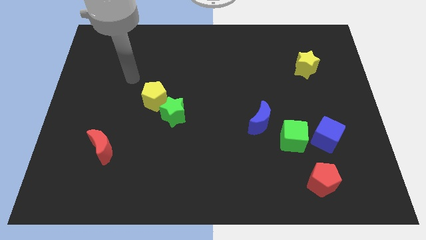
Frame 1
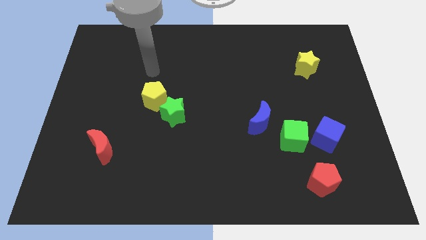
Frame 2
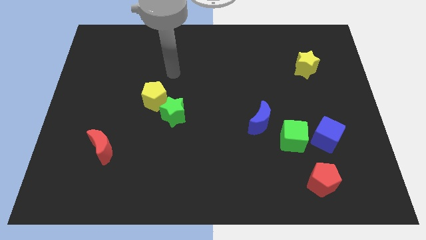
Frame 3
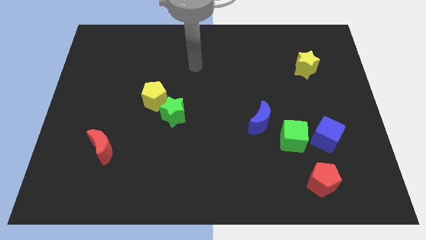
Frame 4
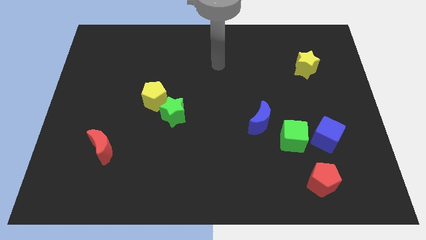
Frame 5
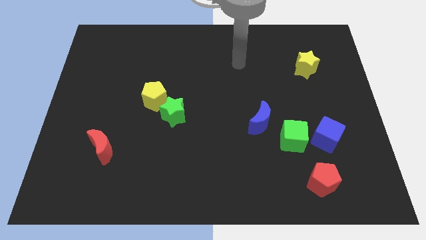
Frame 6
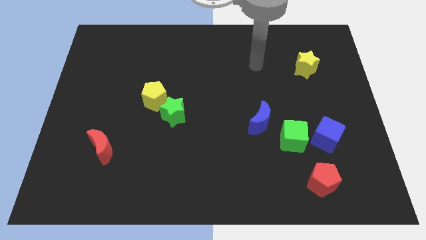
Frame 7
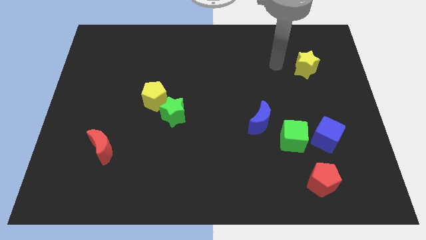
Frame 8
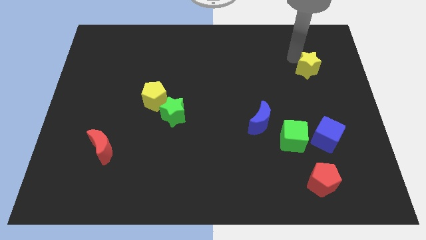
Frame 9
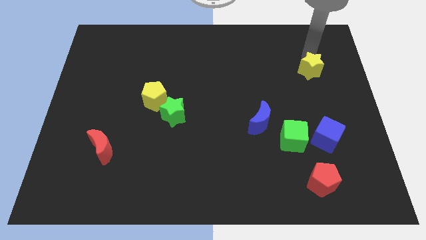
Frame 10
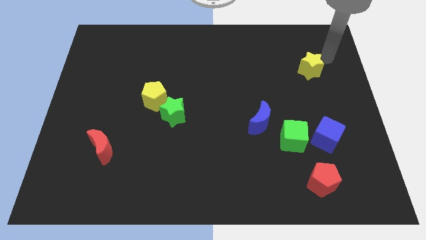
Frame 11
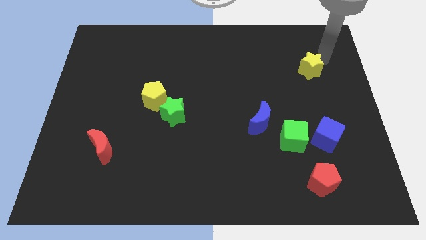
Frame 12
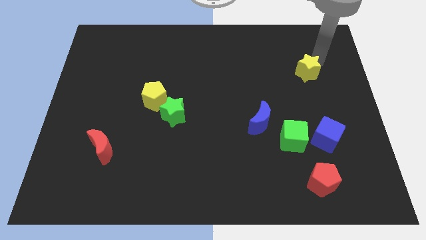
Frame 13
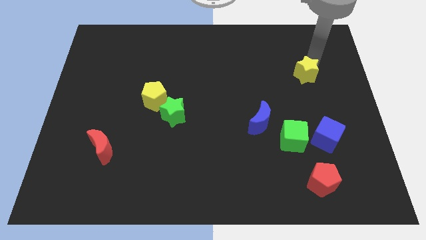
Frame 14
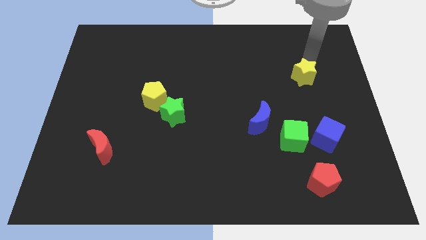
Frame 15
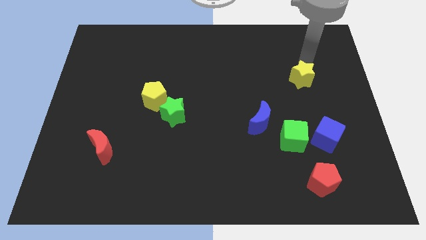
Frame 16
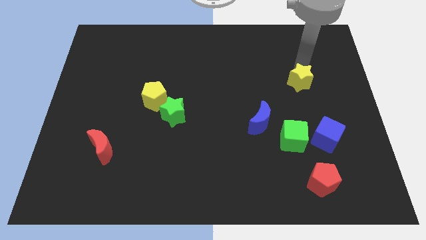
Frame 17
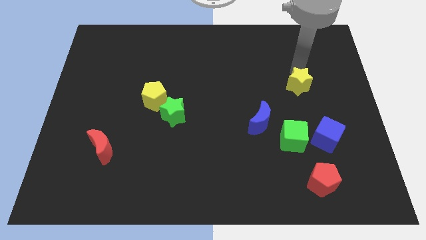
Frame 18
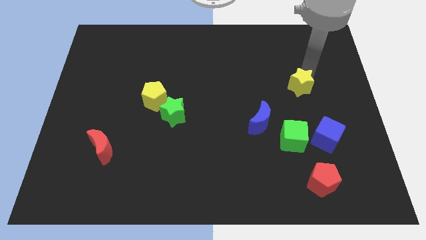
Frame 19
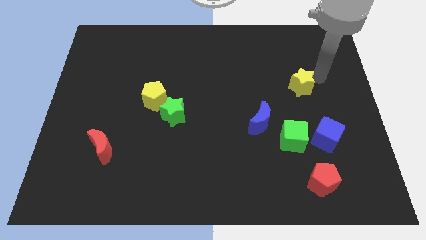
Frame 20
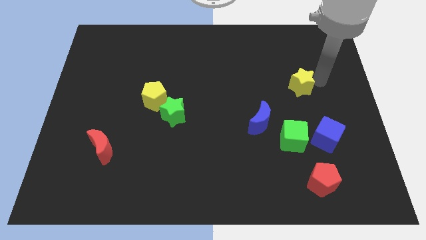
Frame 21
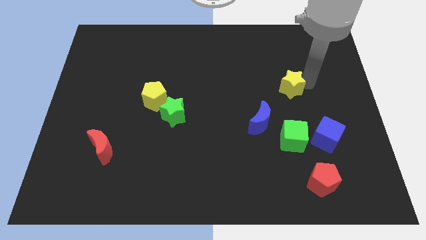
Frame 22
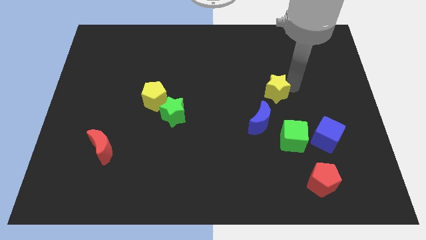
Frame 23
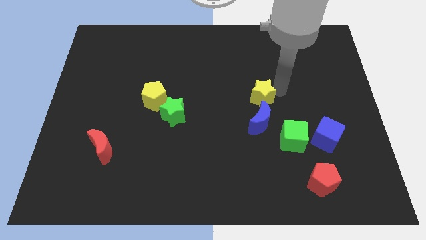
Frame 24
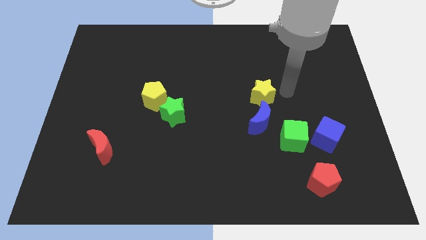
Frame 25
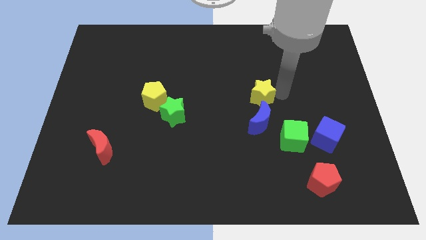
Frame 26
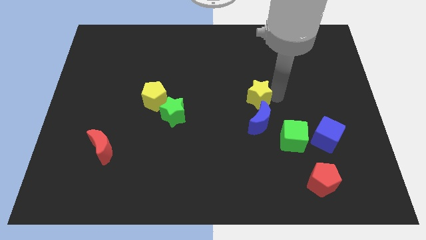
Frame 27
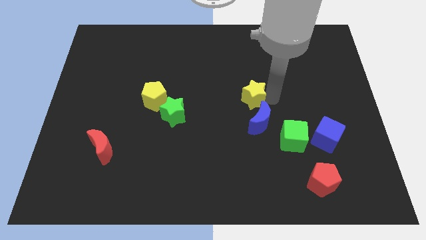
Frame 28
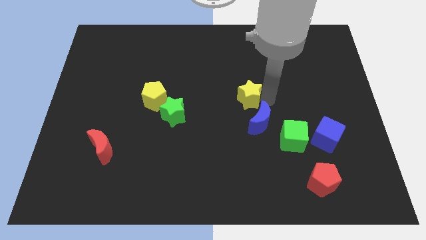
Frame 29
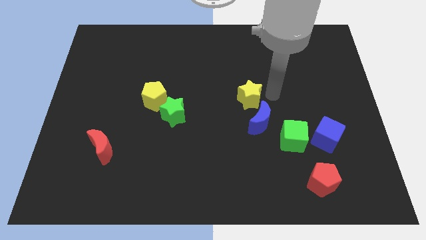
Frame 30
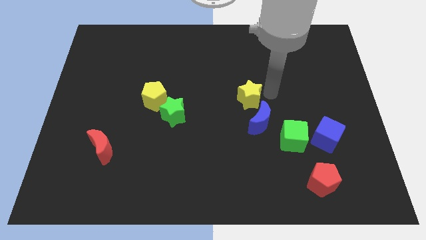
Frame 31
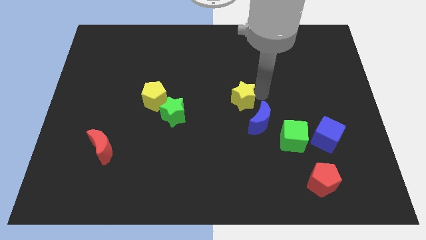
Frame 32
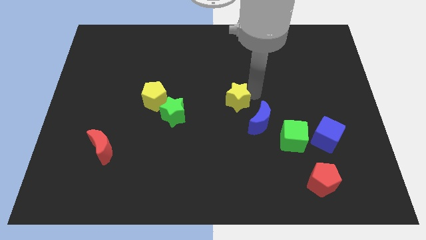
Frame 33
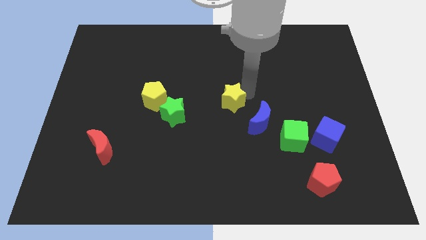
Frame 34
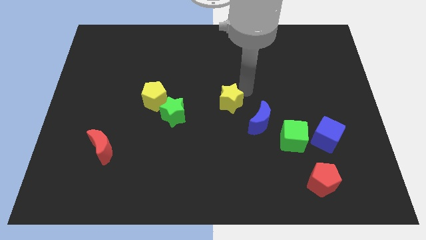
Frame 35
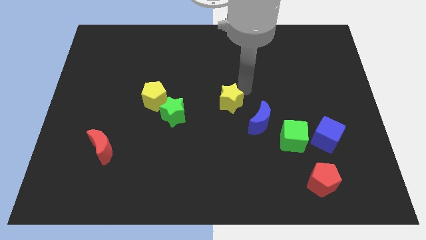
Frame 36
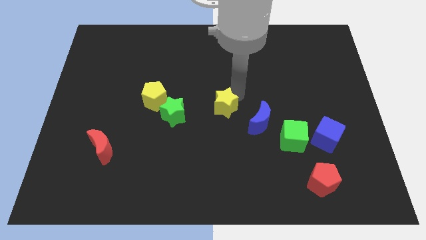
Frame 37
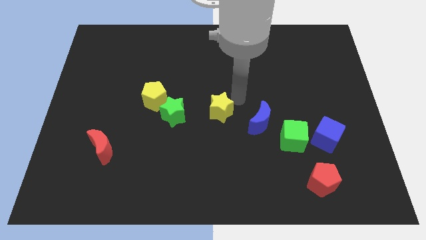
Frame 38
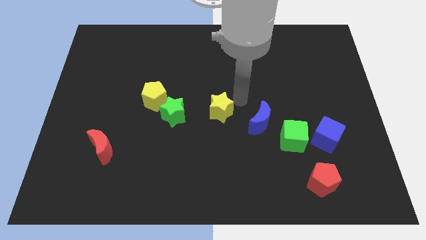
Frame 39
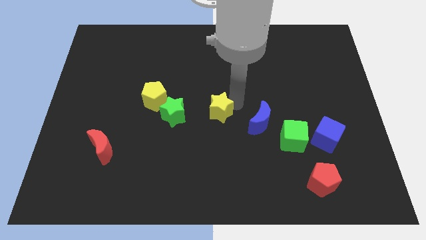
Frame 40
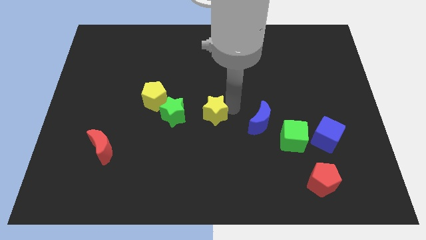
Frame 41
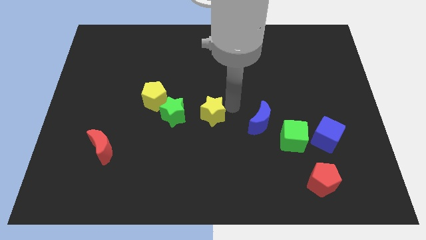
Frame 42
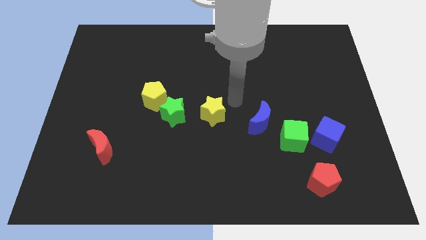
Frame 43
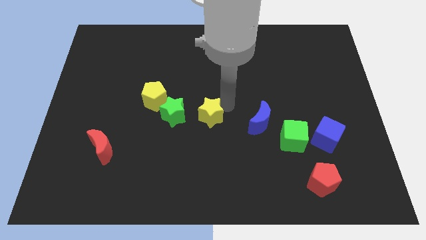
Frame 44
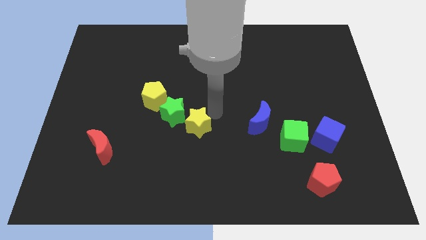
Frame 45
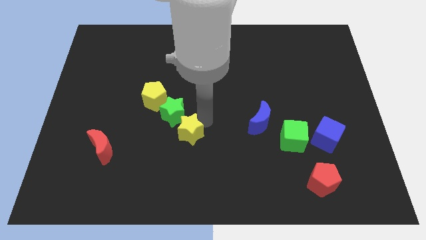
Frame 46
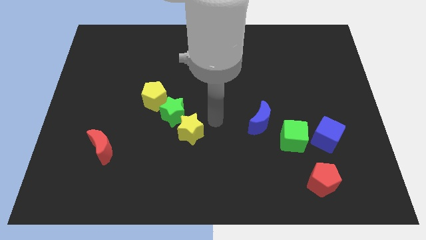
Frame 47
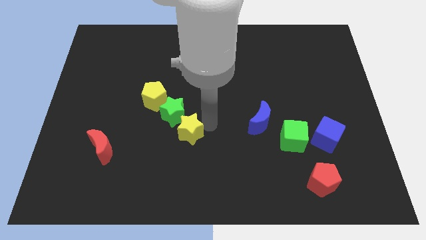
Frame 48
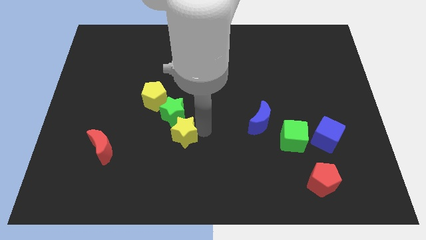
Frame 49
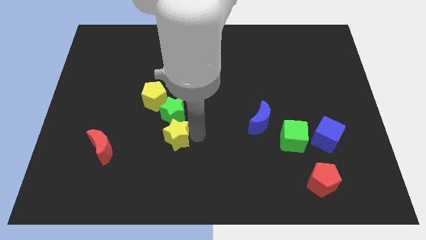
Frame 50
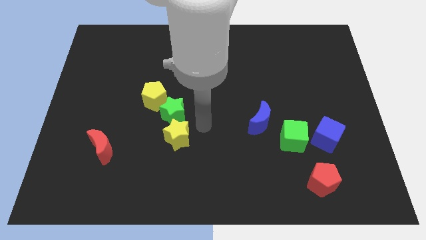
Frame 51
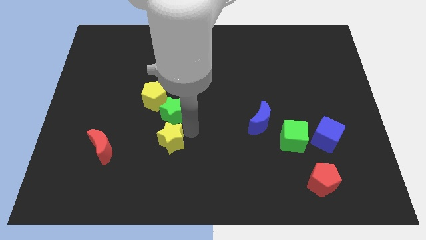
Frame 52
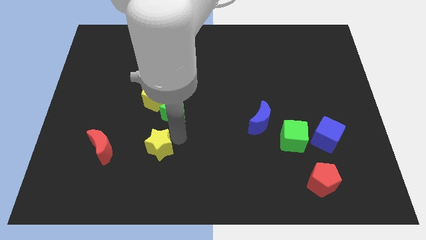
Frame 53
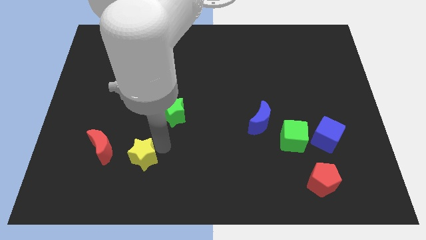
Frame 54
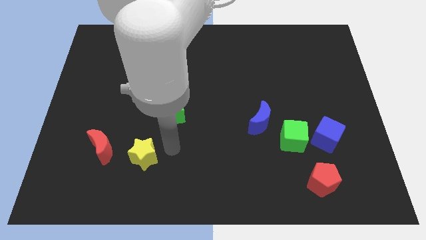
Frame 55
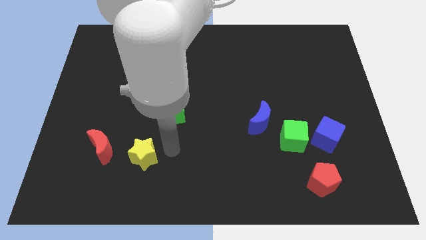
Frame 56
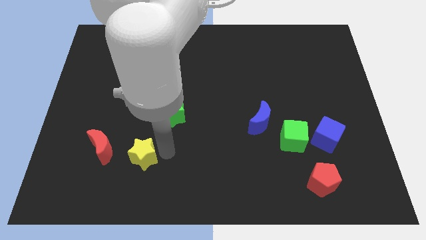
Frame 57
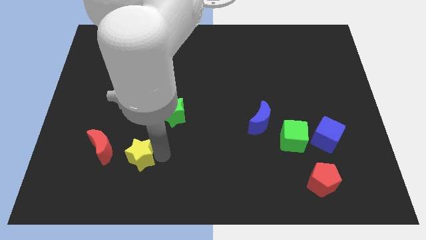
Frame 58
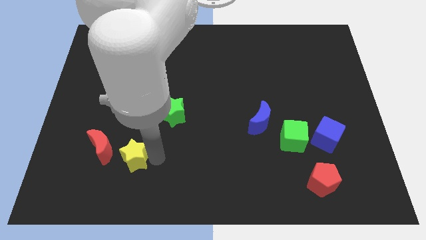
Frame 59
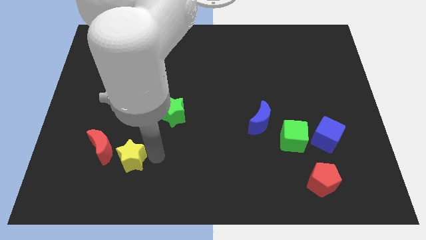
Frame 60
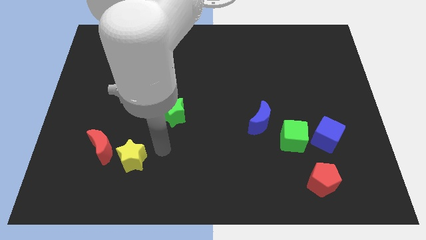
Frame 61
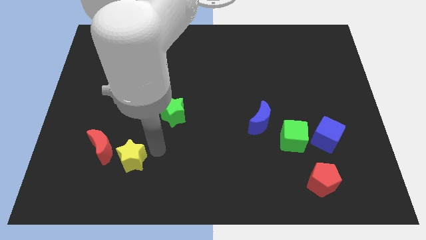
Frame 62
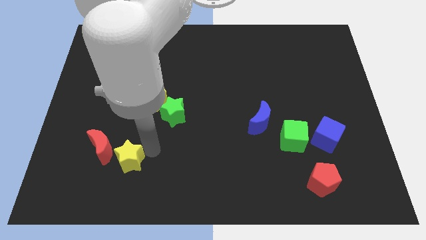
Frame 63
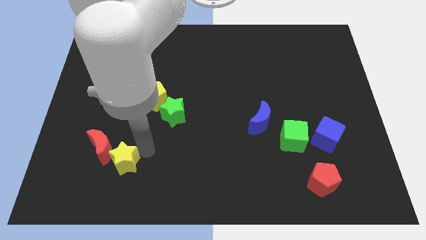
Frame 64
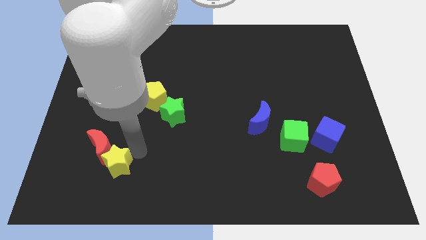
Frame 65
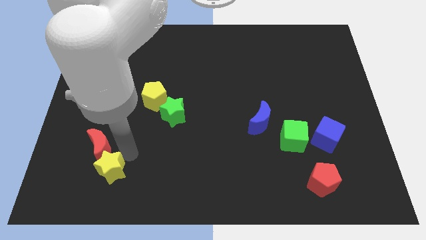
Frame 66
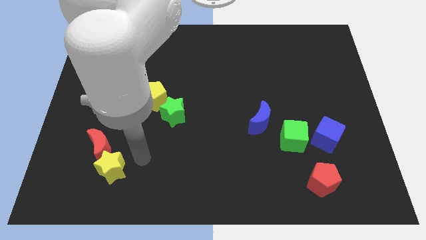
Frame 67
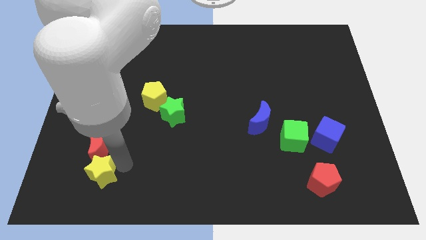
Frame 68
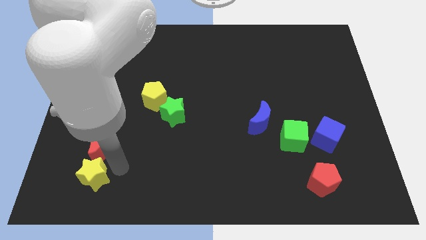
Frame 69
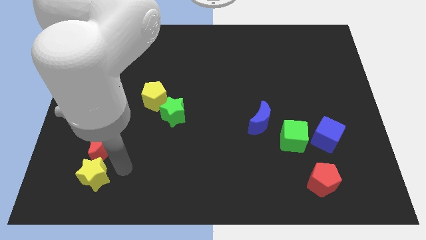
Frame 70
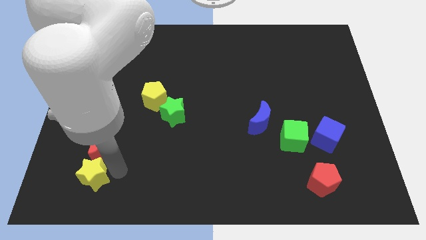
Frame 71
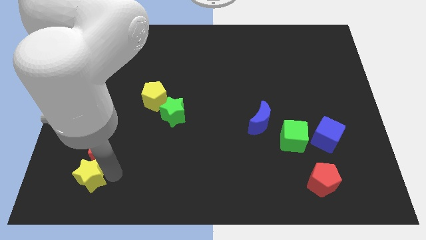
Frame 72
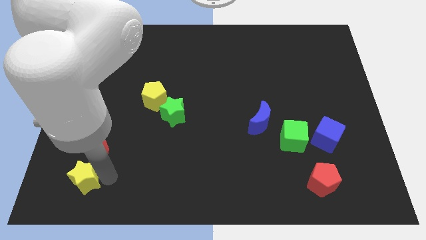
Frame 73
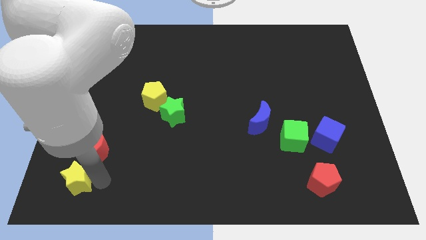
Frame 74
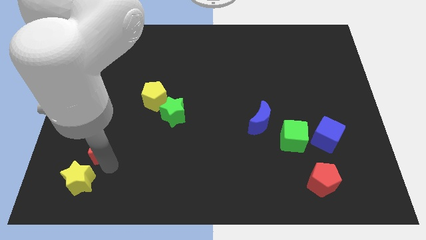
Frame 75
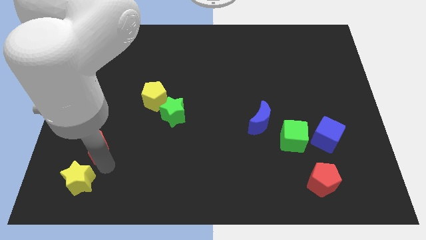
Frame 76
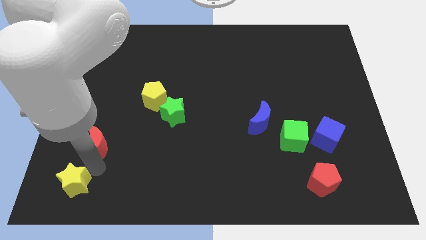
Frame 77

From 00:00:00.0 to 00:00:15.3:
put the yellow star to the bottom left corner

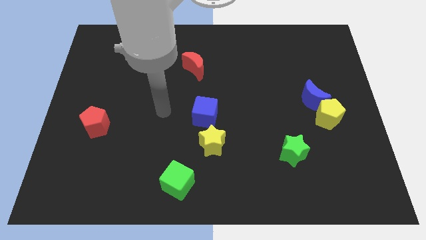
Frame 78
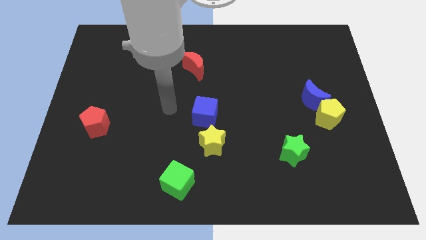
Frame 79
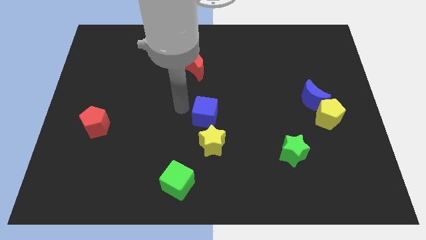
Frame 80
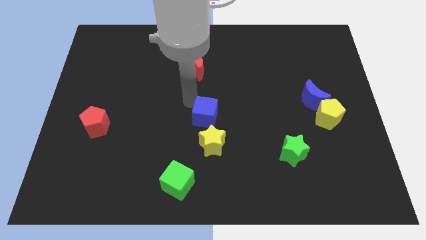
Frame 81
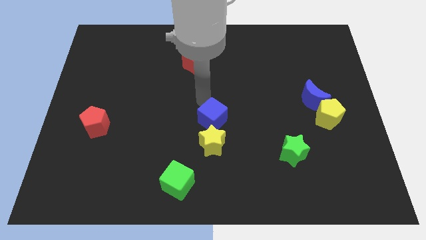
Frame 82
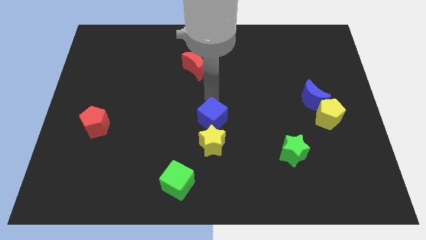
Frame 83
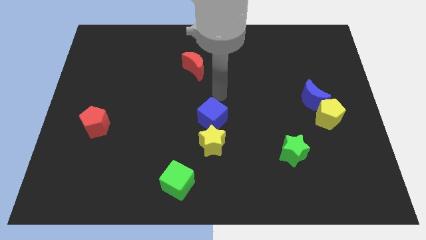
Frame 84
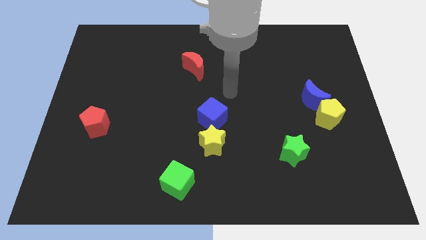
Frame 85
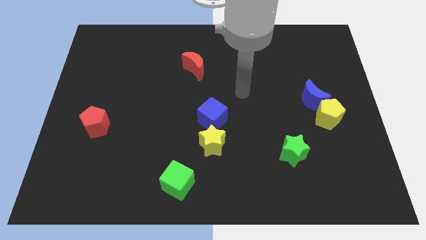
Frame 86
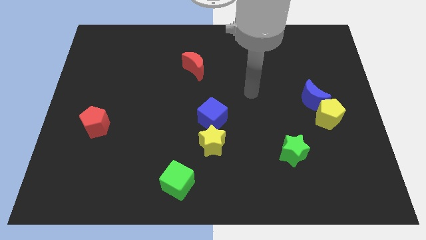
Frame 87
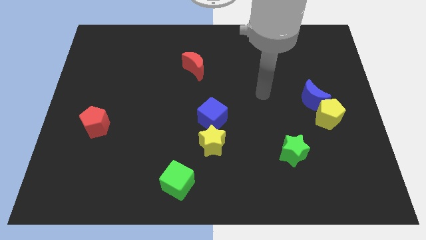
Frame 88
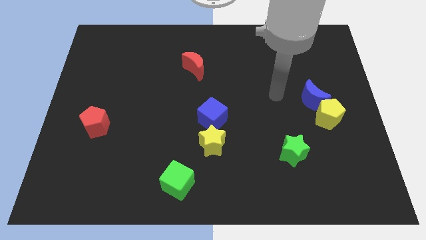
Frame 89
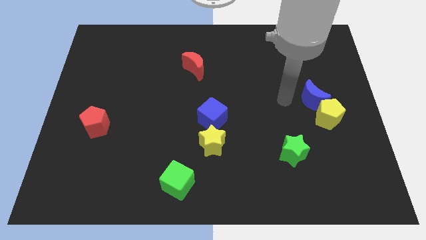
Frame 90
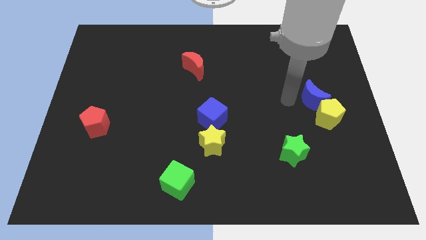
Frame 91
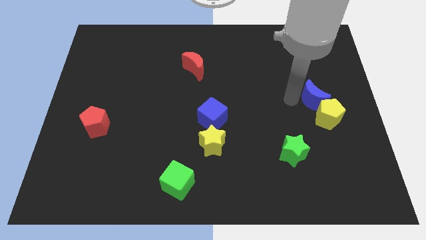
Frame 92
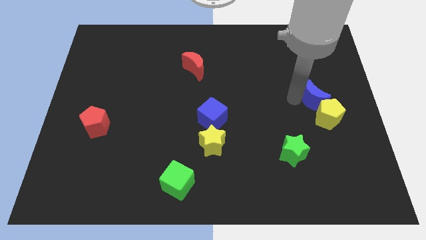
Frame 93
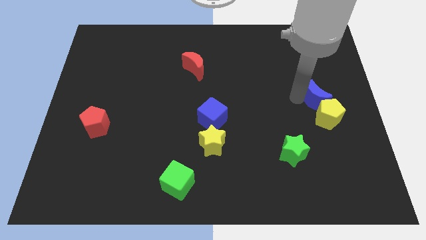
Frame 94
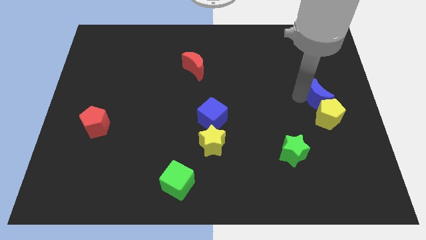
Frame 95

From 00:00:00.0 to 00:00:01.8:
slide the blue moon to the center right
